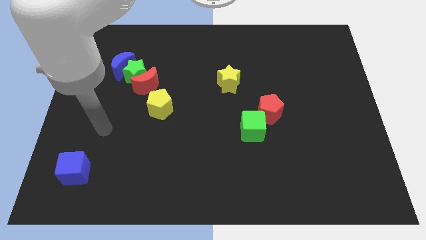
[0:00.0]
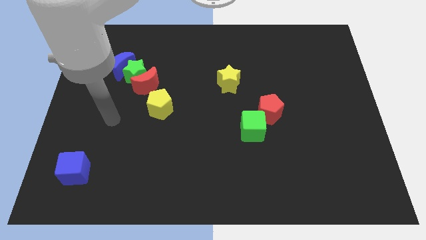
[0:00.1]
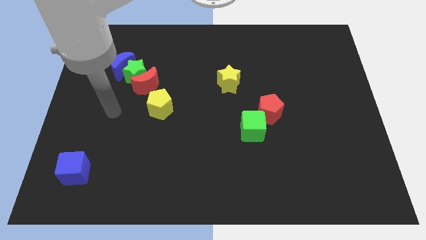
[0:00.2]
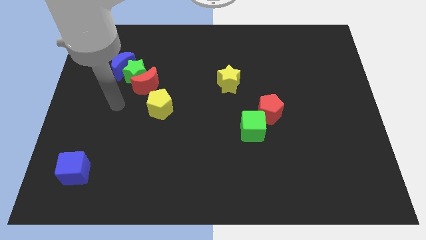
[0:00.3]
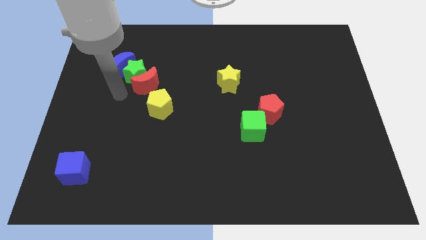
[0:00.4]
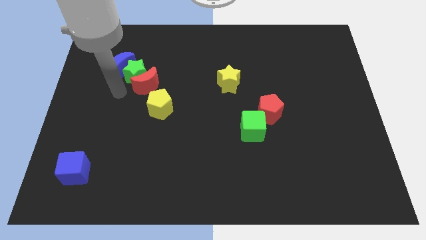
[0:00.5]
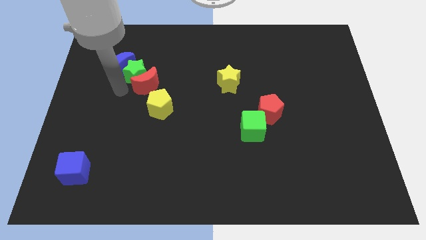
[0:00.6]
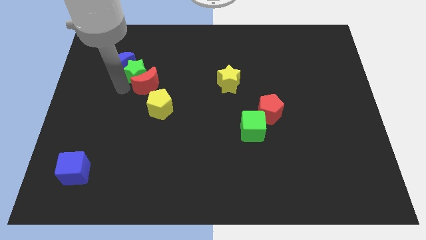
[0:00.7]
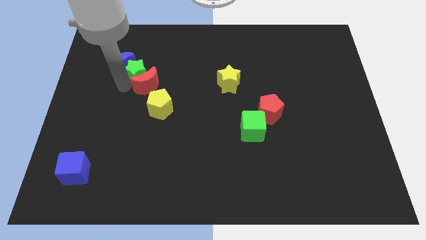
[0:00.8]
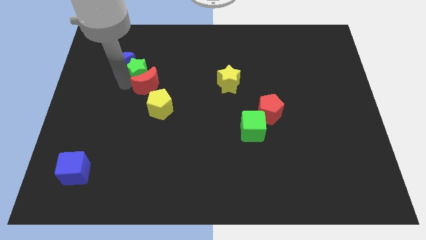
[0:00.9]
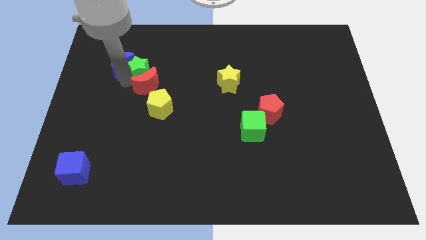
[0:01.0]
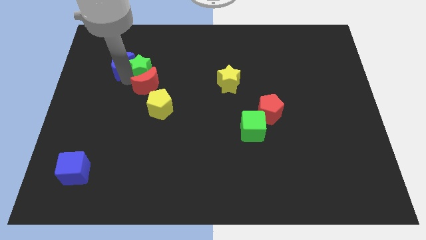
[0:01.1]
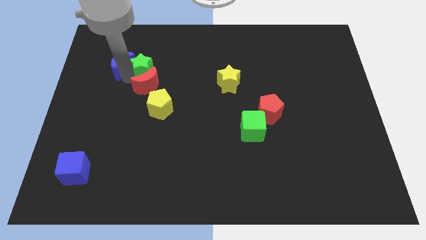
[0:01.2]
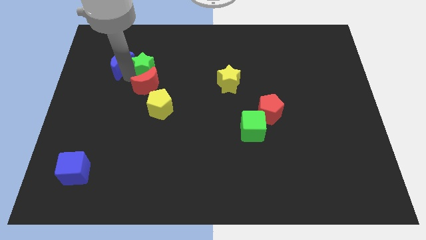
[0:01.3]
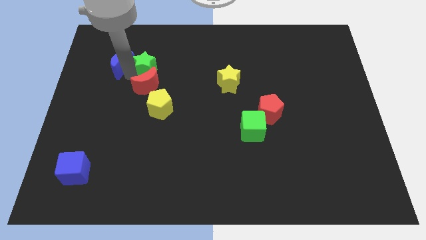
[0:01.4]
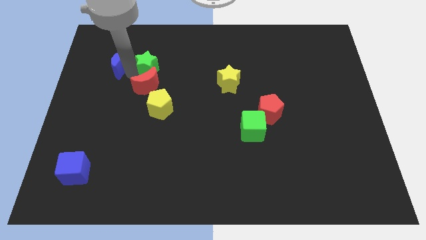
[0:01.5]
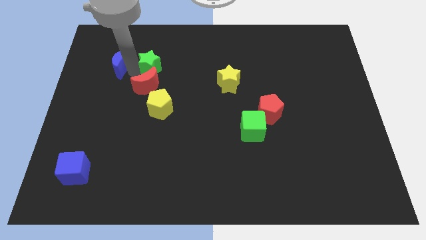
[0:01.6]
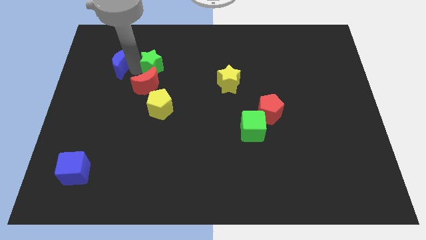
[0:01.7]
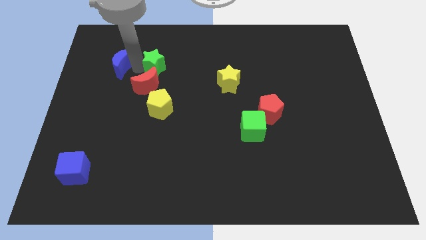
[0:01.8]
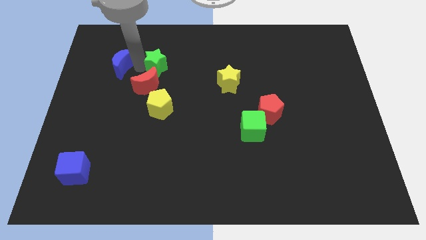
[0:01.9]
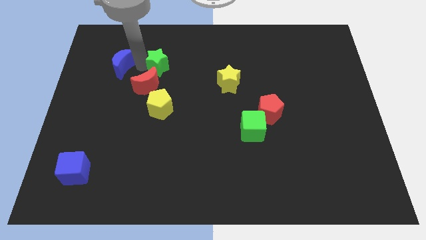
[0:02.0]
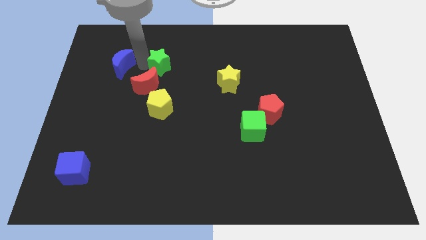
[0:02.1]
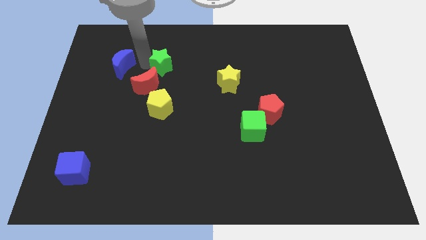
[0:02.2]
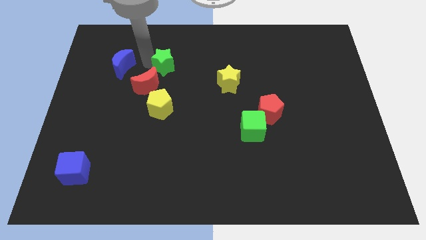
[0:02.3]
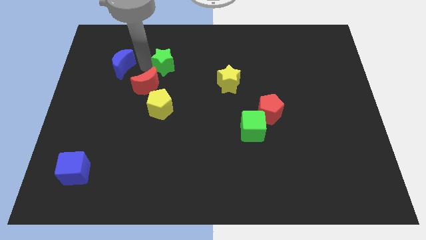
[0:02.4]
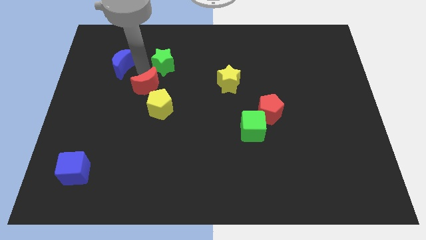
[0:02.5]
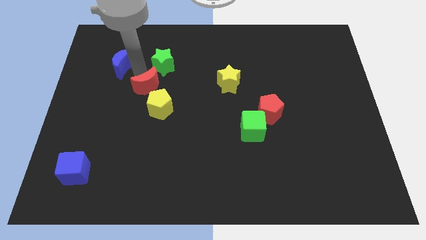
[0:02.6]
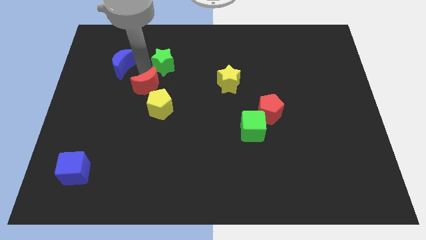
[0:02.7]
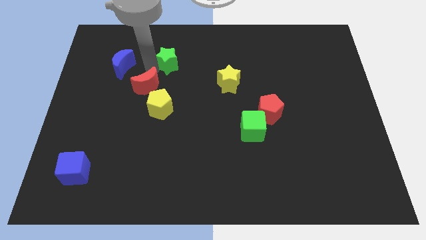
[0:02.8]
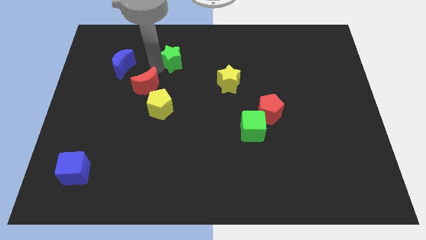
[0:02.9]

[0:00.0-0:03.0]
separate the green star from the red moon and blue moon

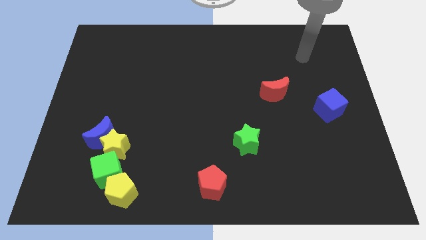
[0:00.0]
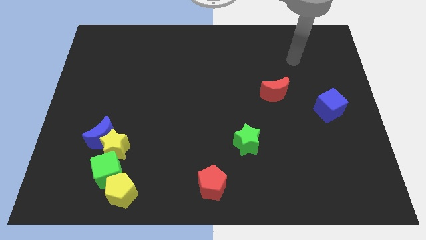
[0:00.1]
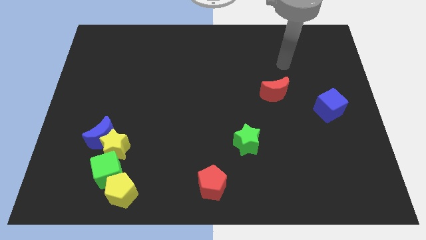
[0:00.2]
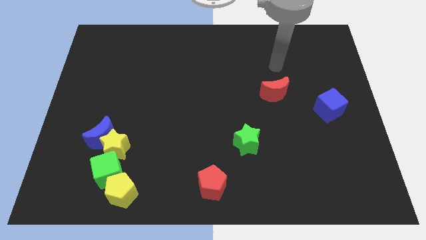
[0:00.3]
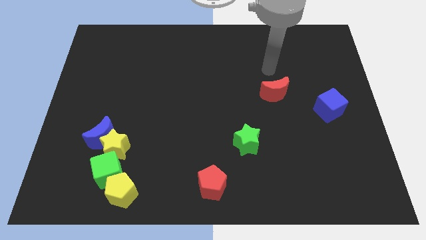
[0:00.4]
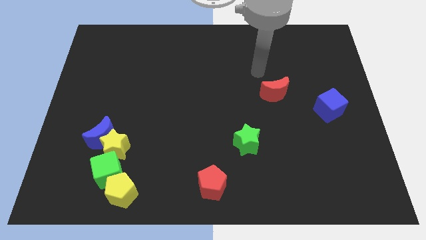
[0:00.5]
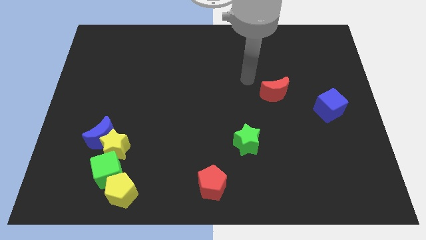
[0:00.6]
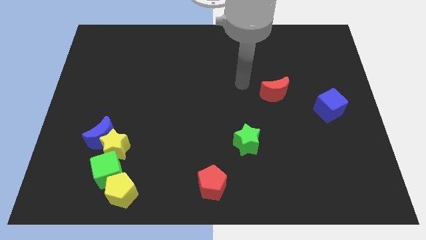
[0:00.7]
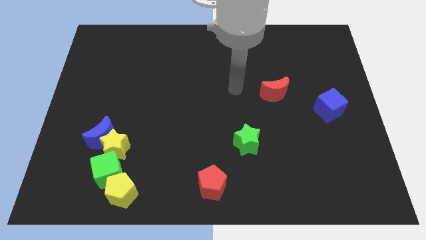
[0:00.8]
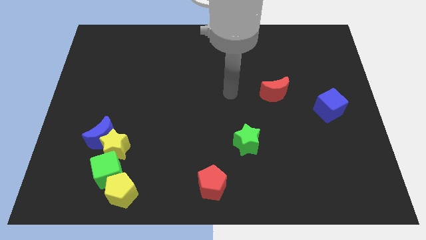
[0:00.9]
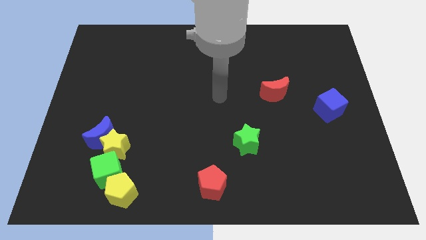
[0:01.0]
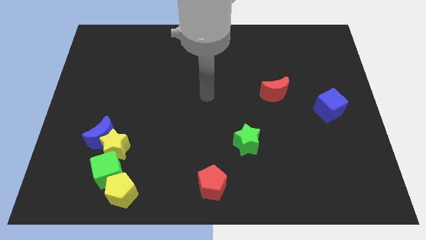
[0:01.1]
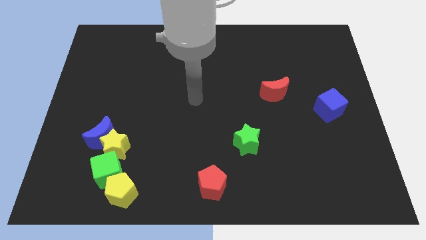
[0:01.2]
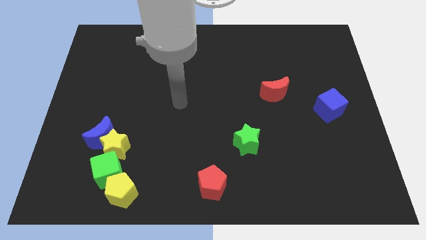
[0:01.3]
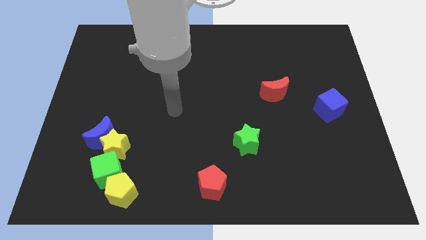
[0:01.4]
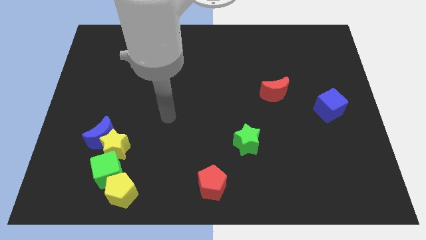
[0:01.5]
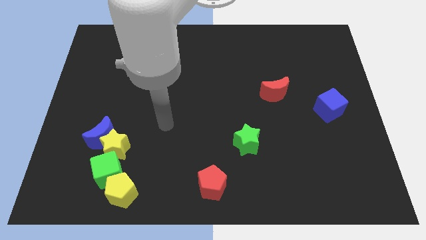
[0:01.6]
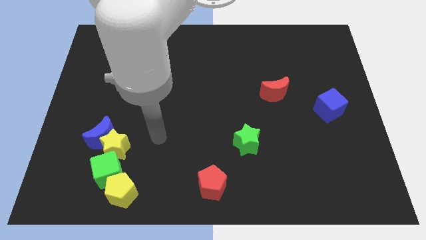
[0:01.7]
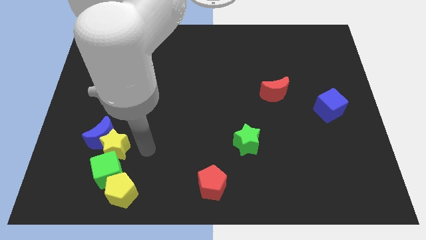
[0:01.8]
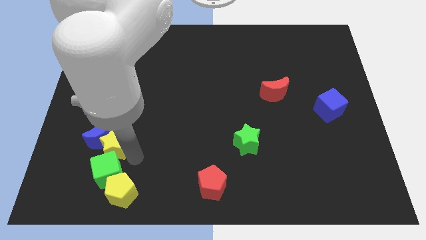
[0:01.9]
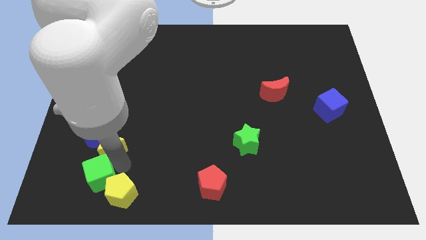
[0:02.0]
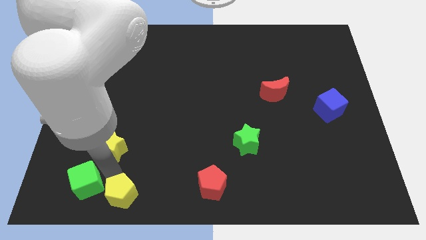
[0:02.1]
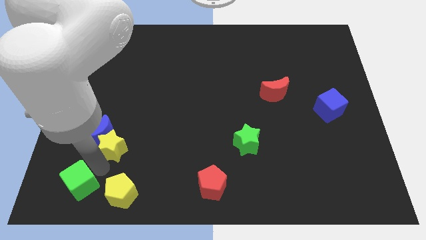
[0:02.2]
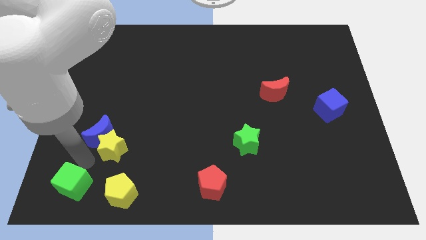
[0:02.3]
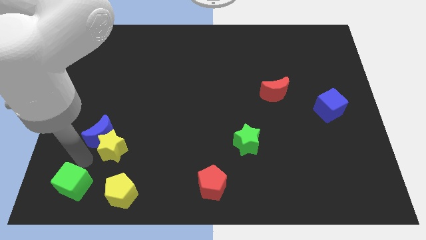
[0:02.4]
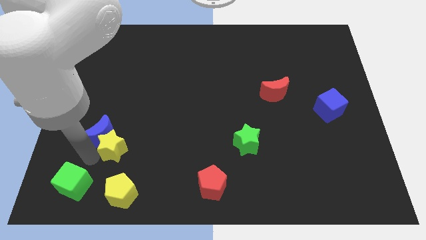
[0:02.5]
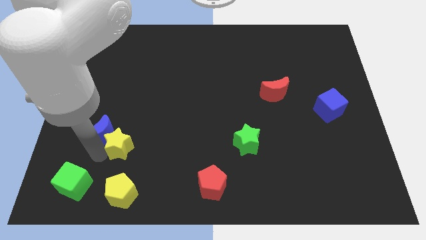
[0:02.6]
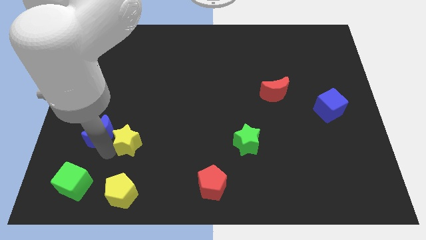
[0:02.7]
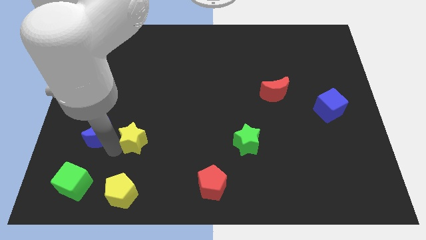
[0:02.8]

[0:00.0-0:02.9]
separate the yellow star from the blue moon and green cube

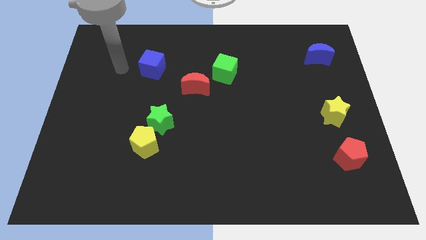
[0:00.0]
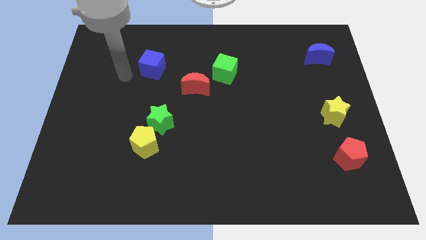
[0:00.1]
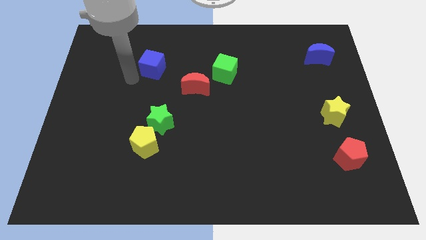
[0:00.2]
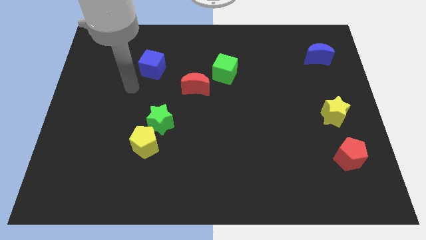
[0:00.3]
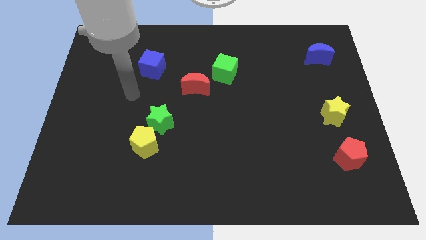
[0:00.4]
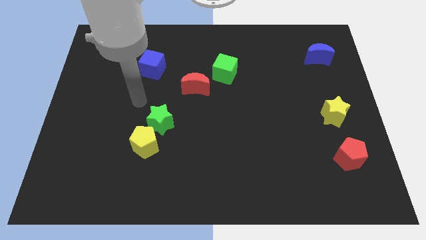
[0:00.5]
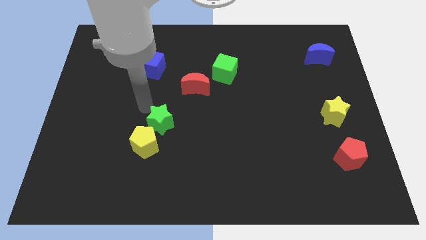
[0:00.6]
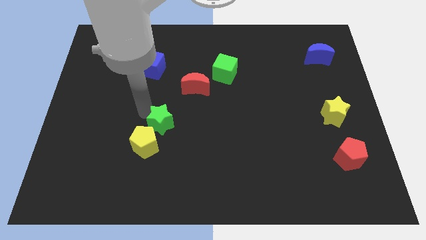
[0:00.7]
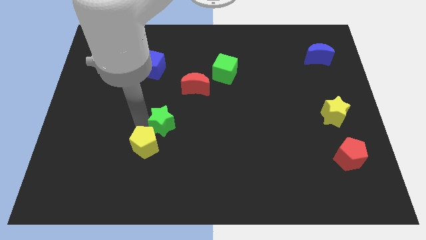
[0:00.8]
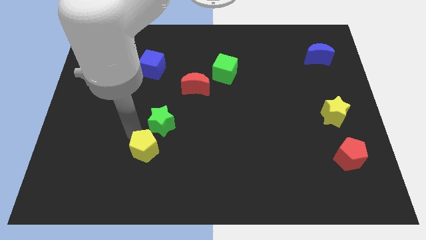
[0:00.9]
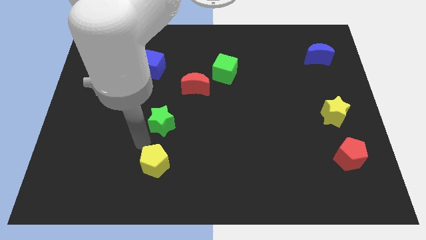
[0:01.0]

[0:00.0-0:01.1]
separate the green star from the yellow pentagon

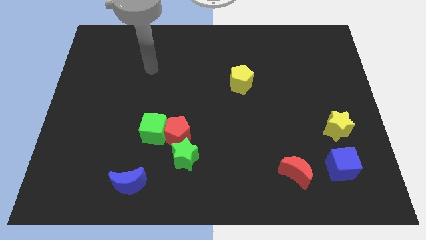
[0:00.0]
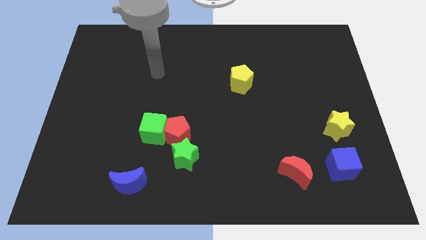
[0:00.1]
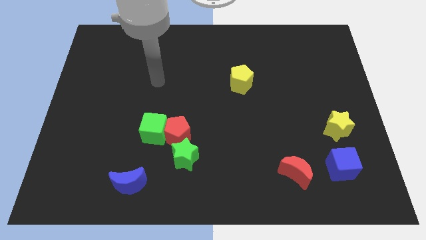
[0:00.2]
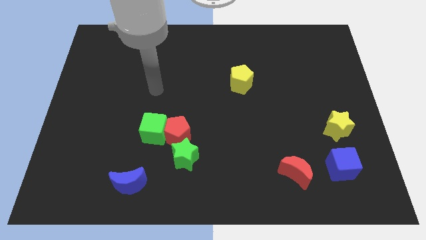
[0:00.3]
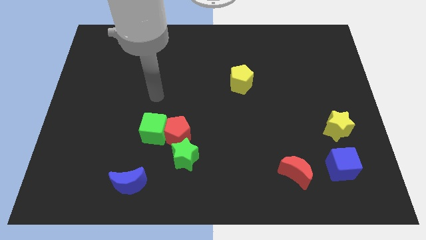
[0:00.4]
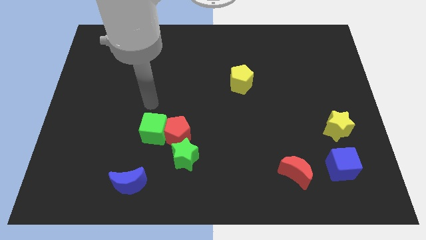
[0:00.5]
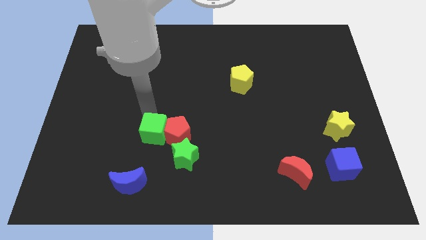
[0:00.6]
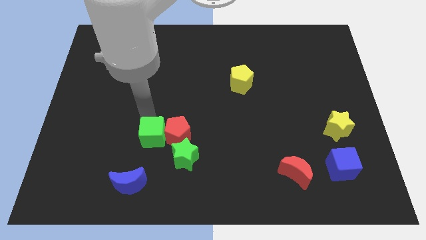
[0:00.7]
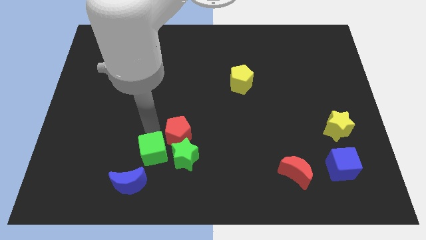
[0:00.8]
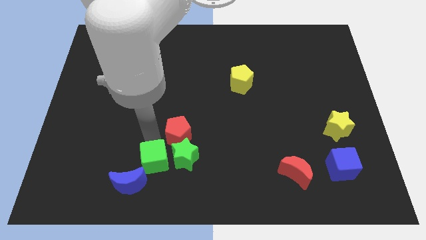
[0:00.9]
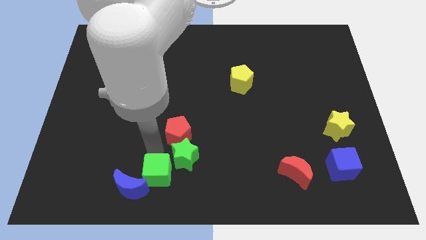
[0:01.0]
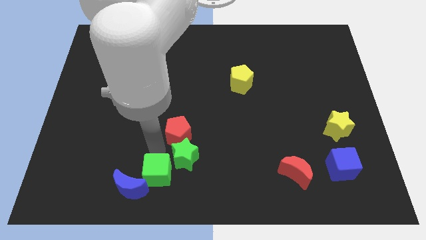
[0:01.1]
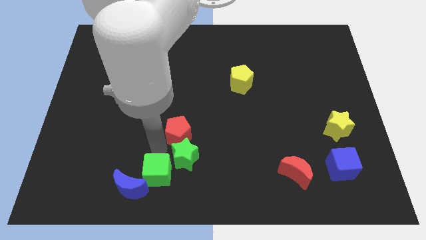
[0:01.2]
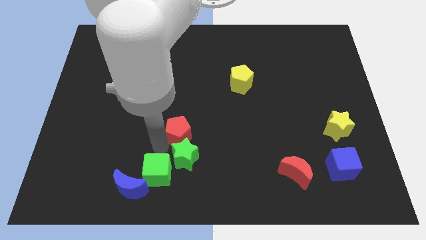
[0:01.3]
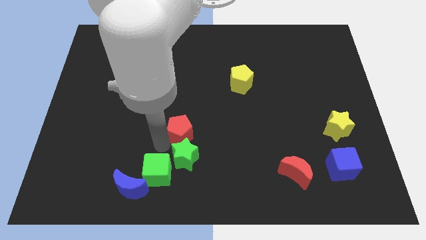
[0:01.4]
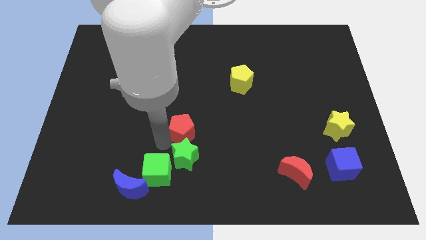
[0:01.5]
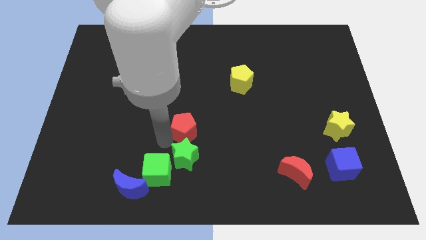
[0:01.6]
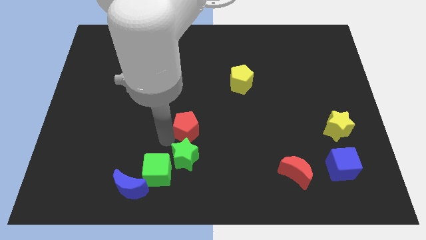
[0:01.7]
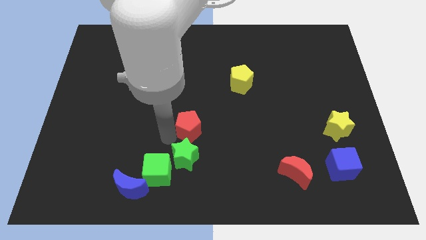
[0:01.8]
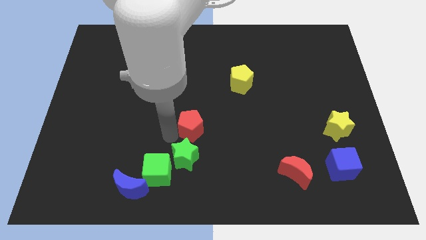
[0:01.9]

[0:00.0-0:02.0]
pull the red pentagon apart from the green cube and green star

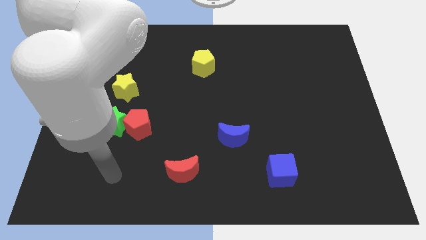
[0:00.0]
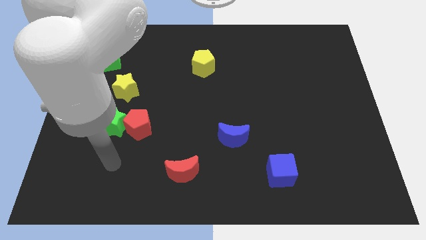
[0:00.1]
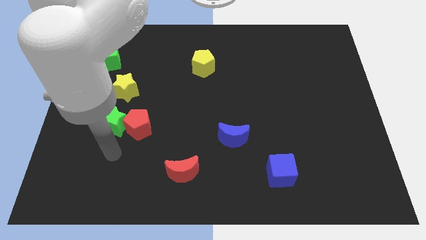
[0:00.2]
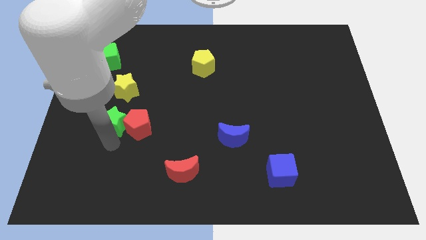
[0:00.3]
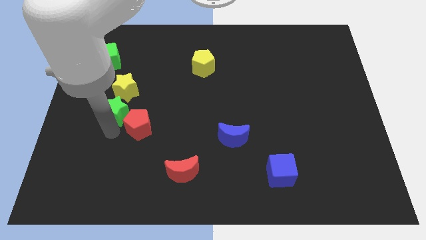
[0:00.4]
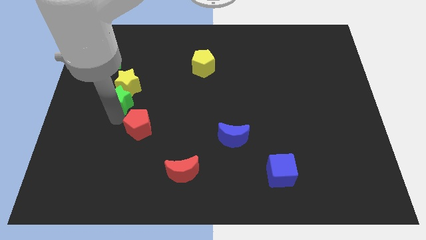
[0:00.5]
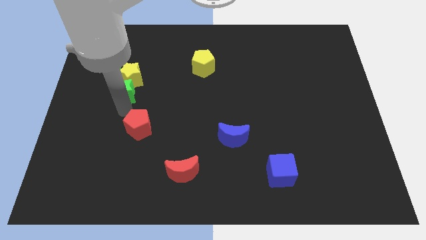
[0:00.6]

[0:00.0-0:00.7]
move the red pentagon away from the green star
